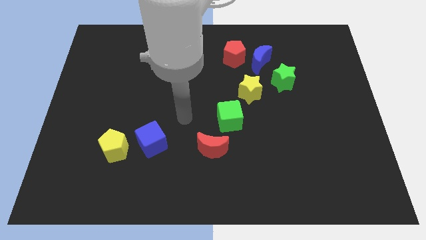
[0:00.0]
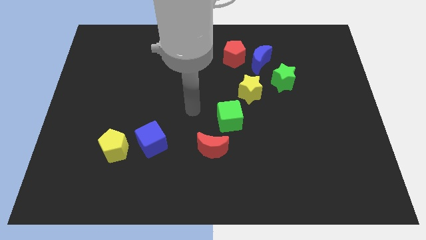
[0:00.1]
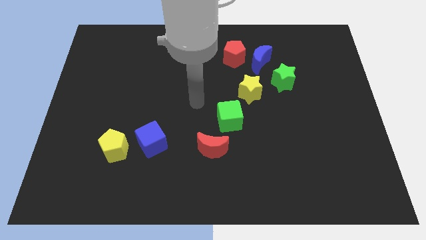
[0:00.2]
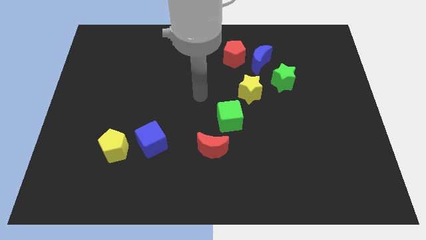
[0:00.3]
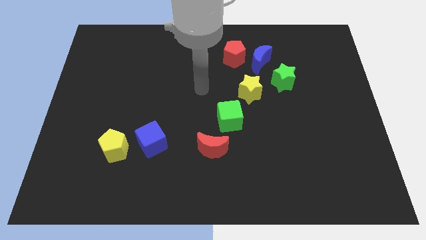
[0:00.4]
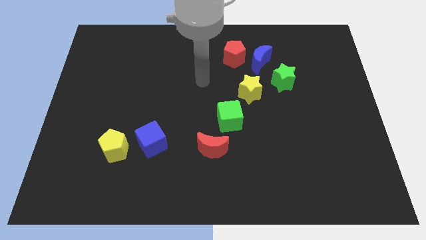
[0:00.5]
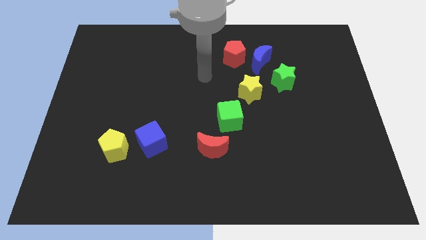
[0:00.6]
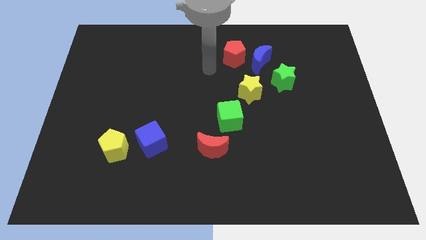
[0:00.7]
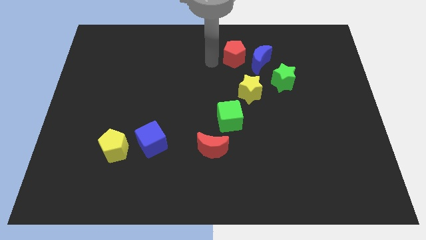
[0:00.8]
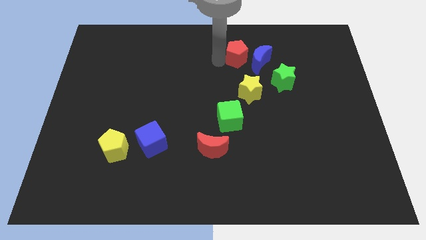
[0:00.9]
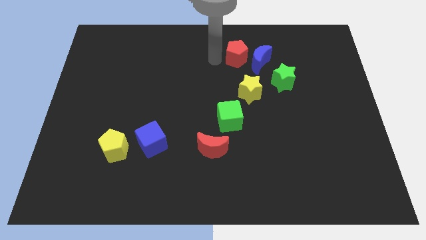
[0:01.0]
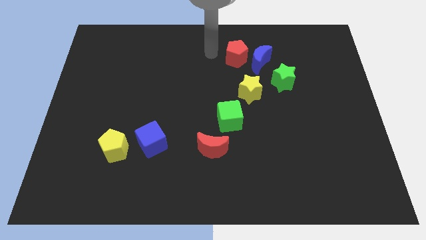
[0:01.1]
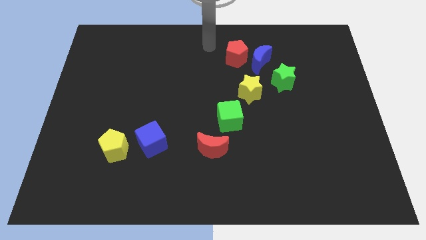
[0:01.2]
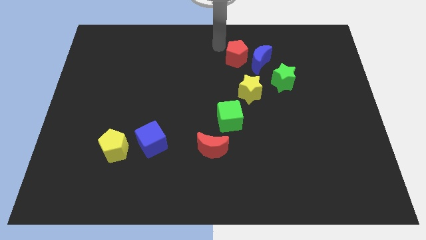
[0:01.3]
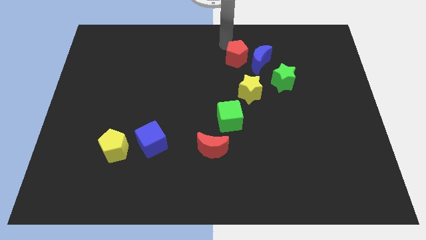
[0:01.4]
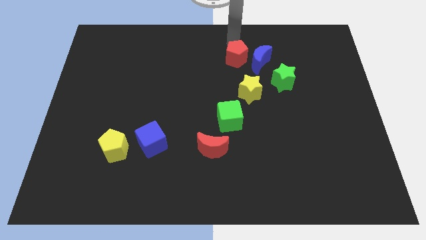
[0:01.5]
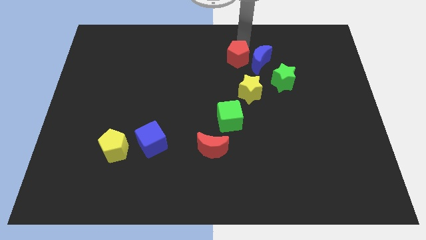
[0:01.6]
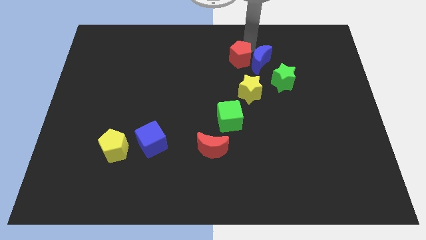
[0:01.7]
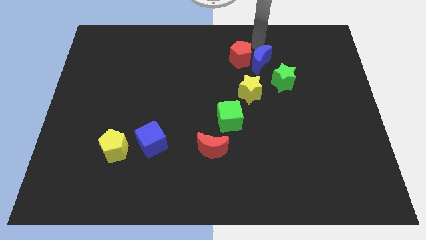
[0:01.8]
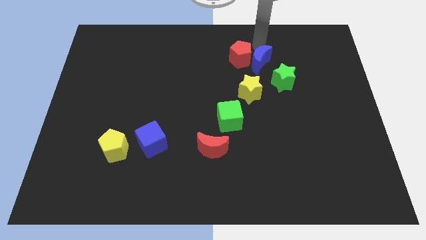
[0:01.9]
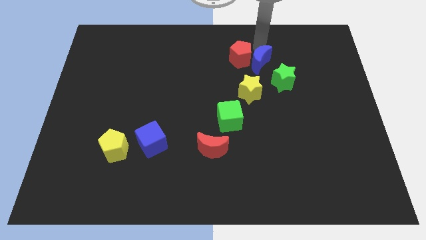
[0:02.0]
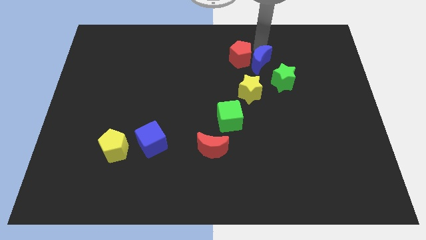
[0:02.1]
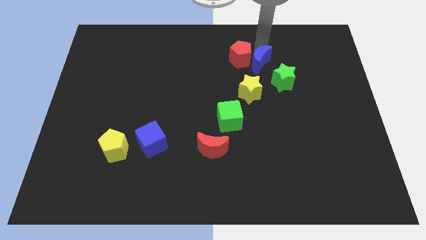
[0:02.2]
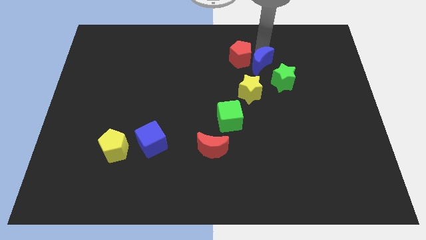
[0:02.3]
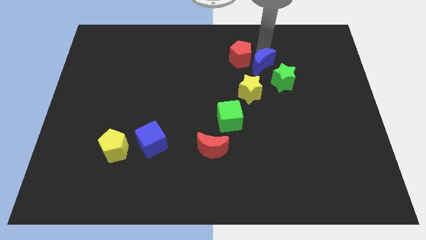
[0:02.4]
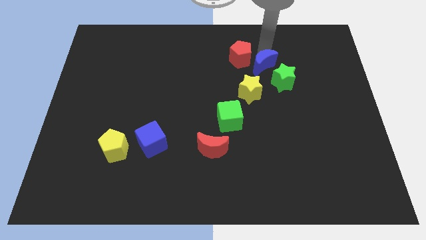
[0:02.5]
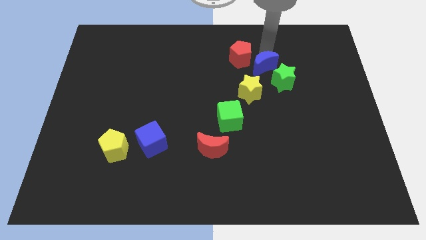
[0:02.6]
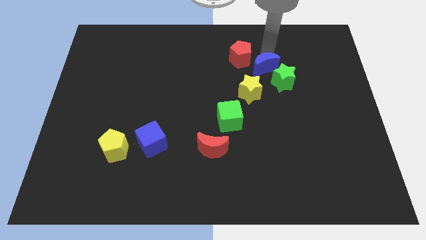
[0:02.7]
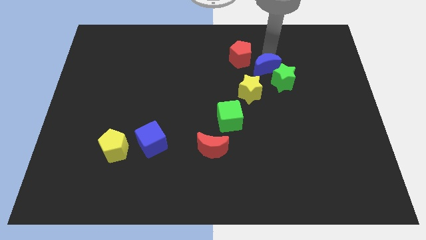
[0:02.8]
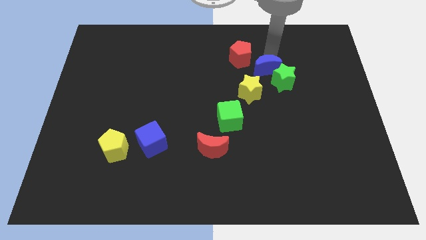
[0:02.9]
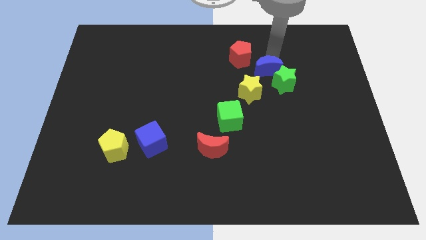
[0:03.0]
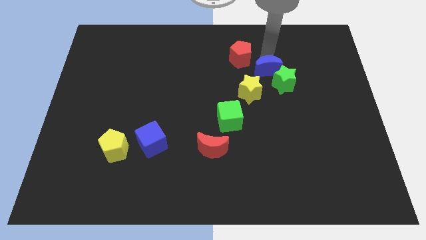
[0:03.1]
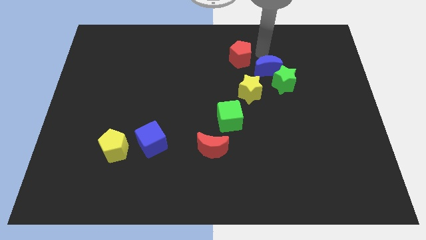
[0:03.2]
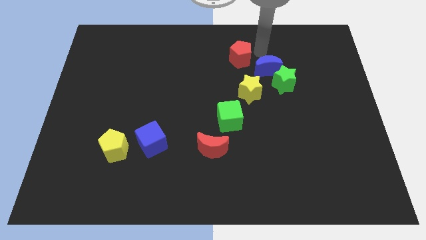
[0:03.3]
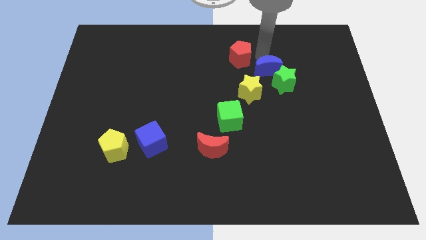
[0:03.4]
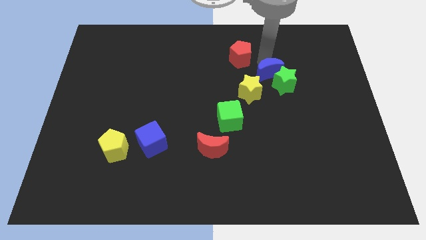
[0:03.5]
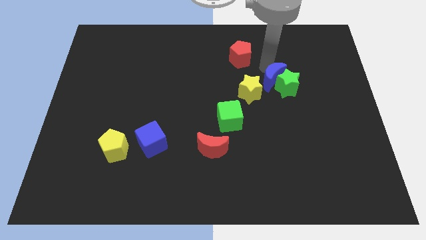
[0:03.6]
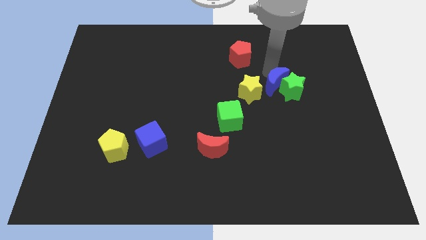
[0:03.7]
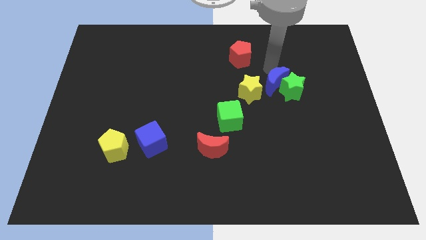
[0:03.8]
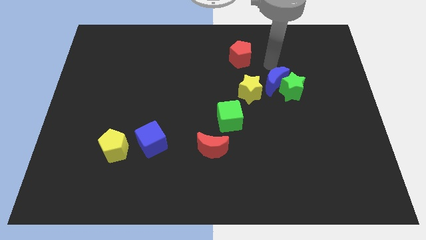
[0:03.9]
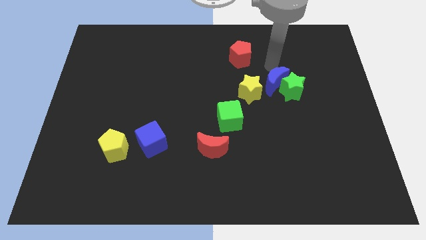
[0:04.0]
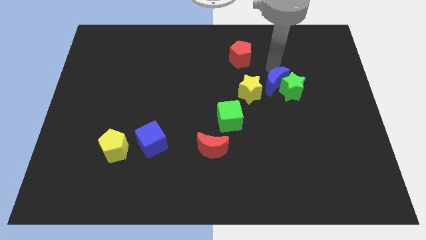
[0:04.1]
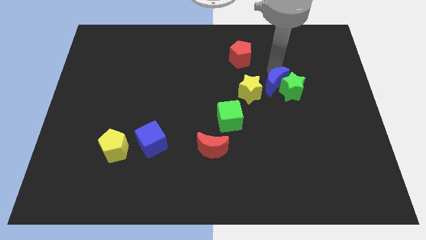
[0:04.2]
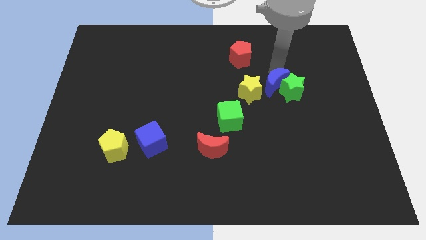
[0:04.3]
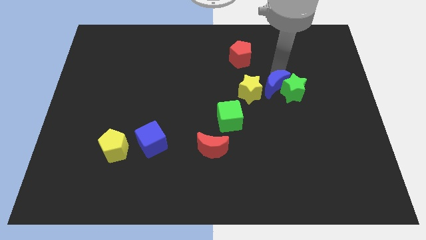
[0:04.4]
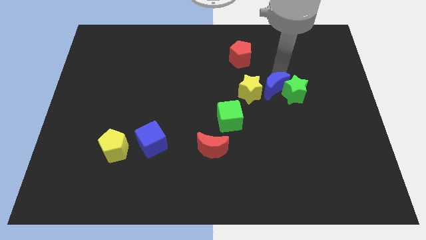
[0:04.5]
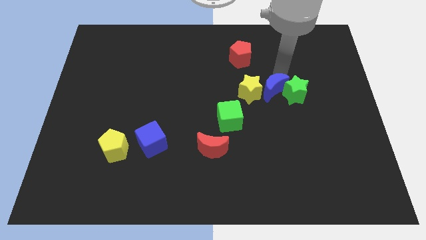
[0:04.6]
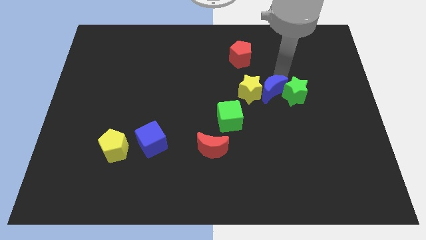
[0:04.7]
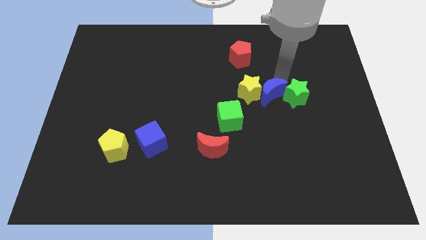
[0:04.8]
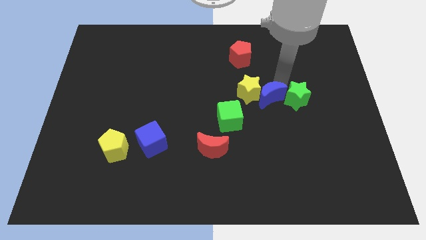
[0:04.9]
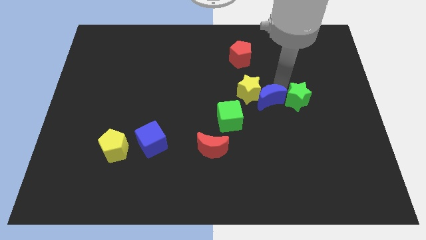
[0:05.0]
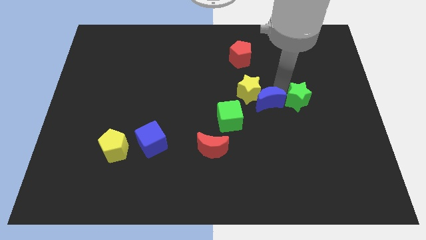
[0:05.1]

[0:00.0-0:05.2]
push the blue moon to the bottom of the yellow star
